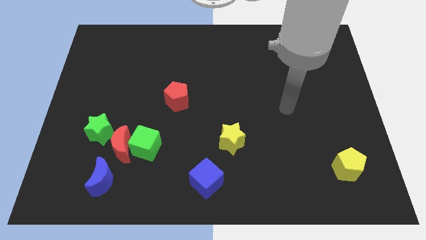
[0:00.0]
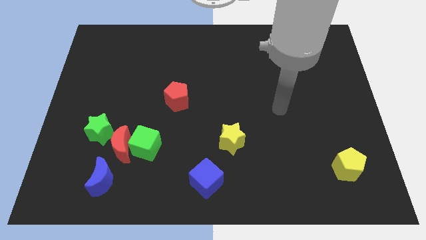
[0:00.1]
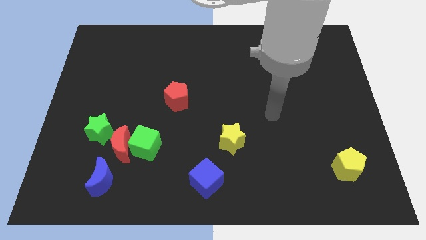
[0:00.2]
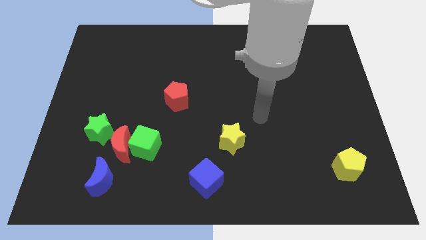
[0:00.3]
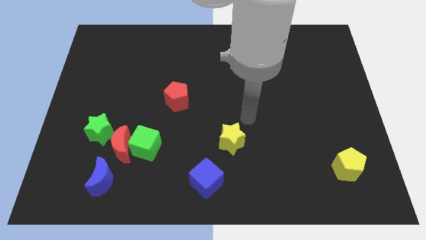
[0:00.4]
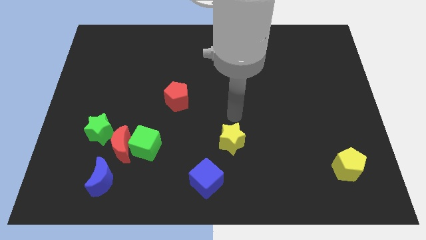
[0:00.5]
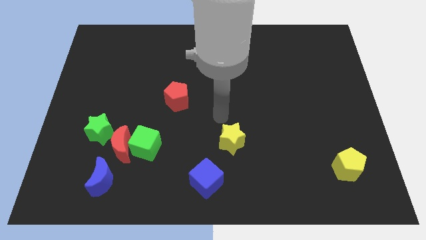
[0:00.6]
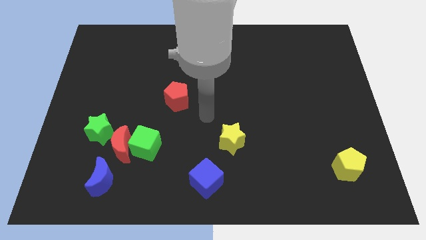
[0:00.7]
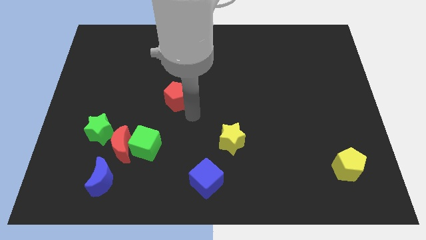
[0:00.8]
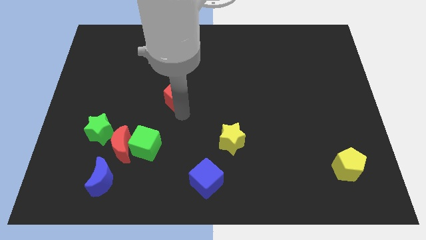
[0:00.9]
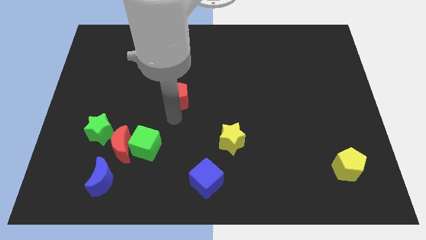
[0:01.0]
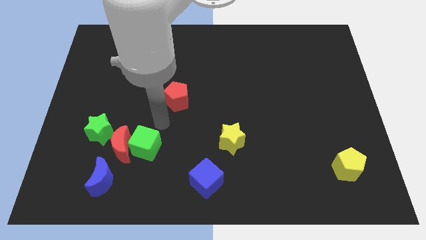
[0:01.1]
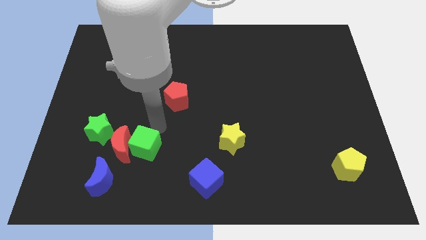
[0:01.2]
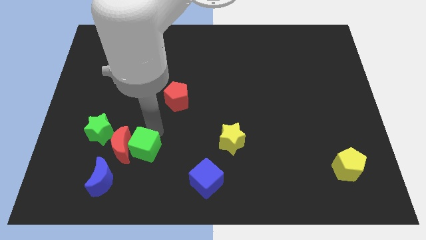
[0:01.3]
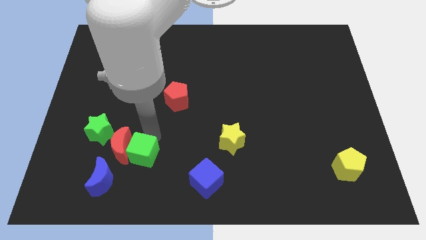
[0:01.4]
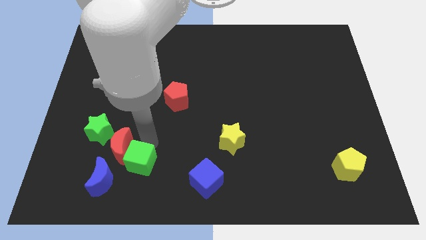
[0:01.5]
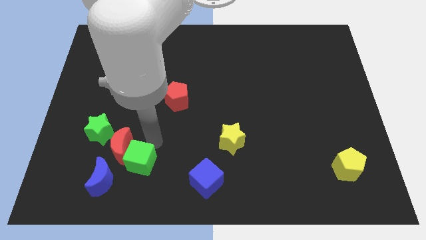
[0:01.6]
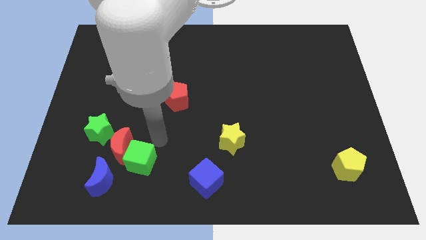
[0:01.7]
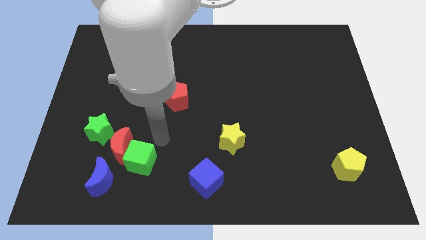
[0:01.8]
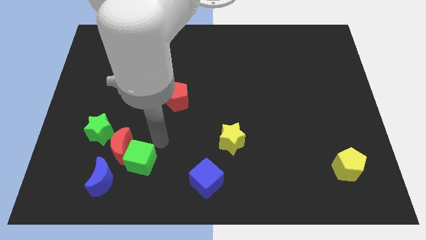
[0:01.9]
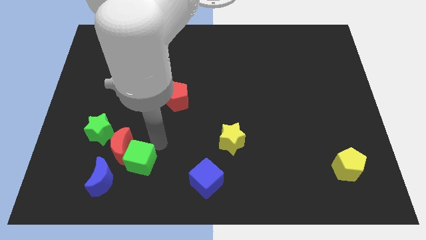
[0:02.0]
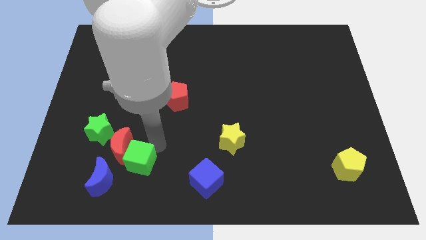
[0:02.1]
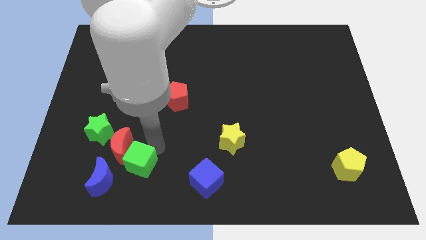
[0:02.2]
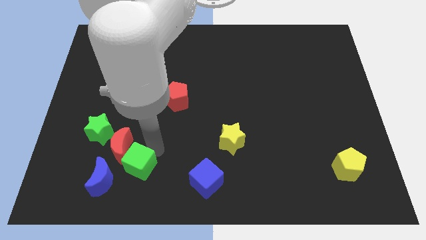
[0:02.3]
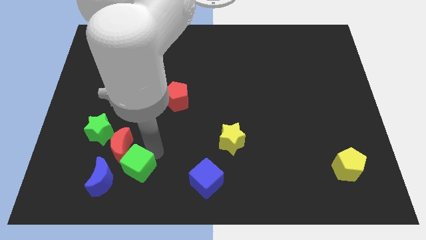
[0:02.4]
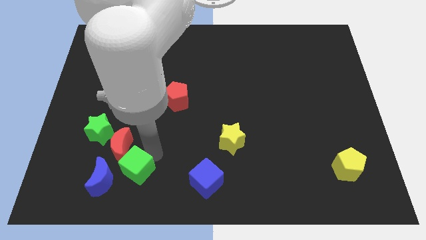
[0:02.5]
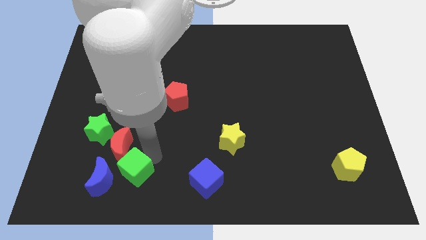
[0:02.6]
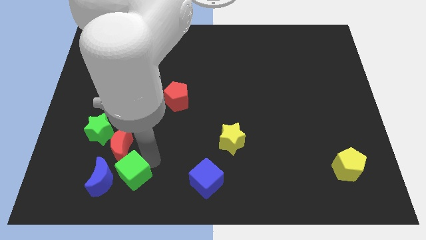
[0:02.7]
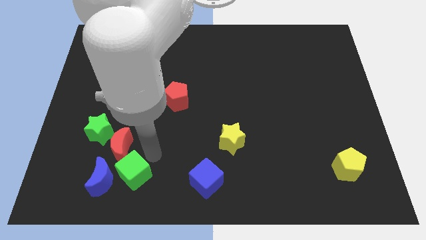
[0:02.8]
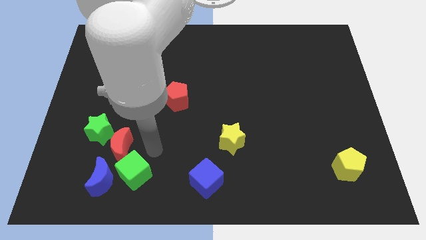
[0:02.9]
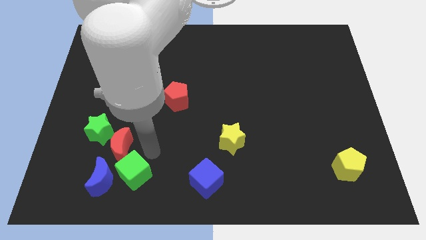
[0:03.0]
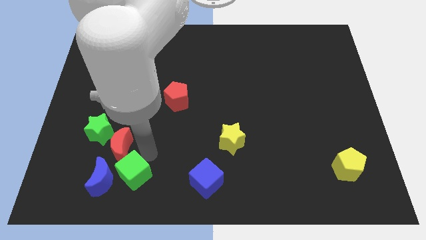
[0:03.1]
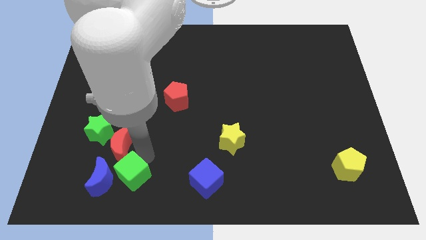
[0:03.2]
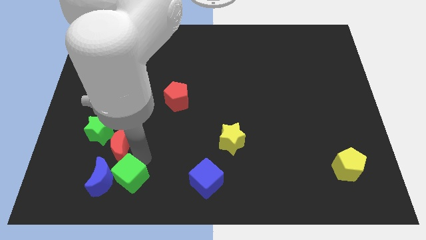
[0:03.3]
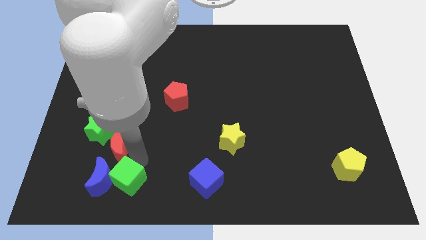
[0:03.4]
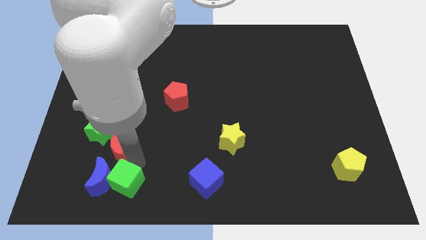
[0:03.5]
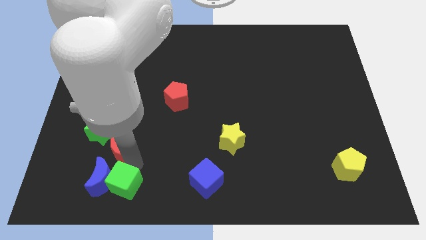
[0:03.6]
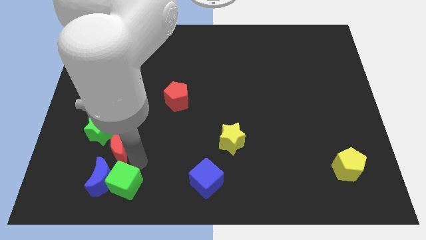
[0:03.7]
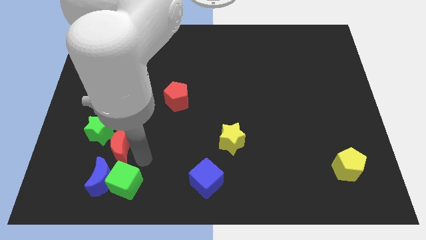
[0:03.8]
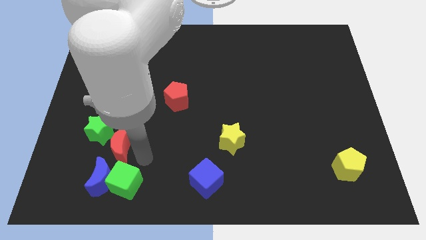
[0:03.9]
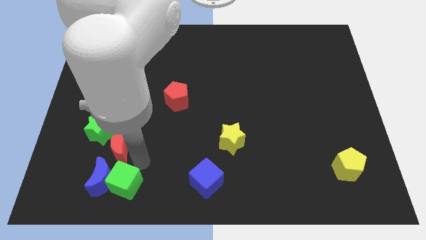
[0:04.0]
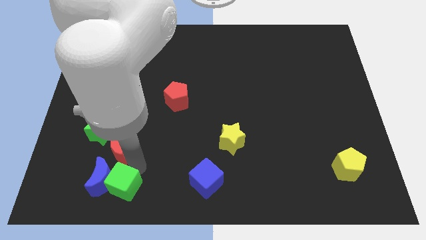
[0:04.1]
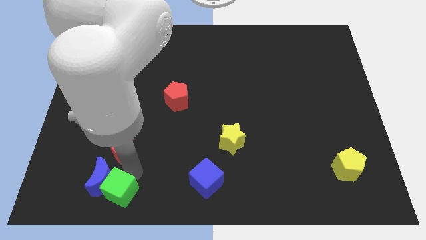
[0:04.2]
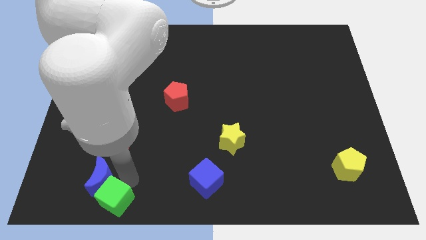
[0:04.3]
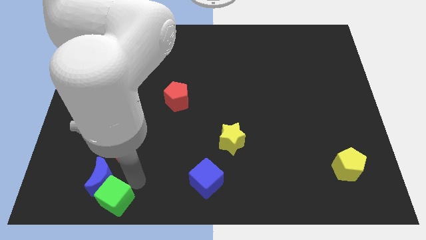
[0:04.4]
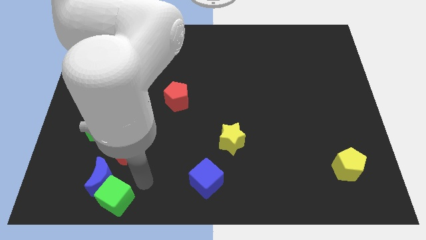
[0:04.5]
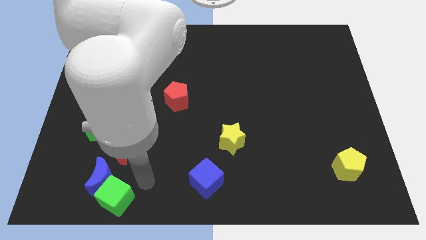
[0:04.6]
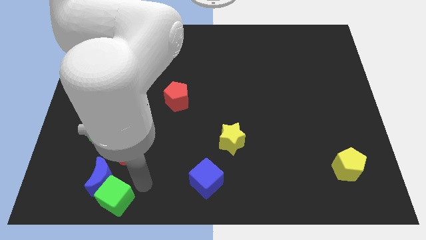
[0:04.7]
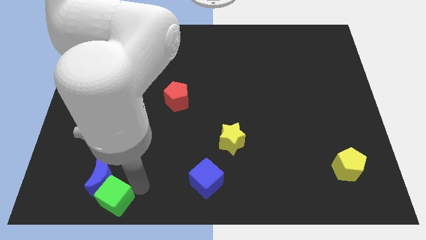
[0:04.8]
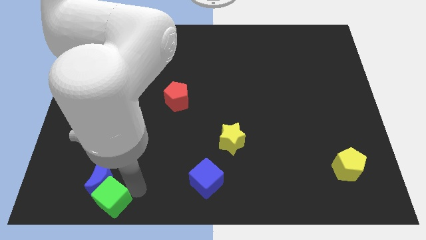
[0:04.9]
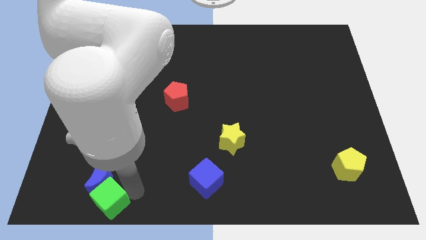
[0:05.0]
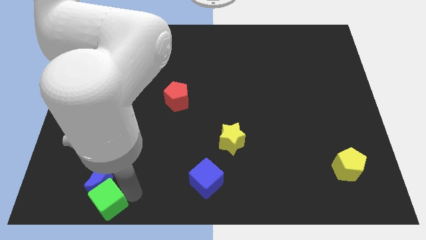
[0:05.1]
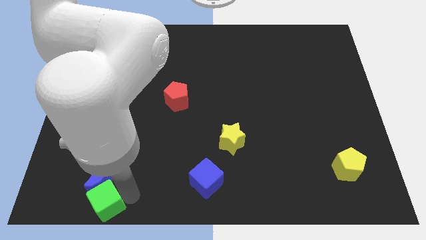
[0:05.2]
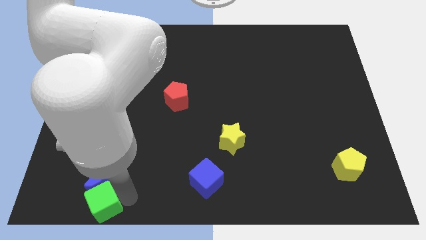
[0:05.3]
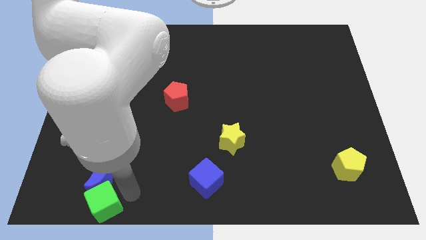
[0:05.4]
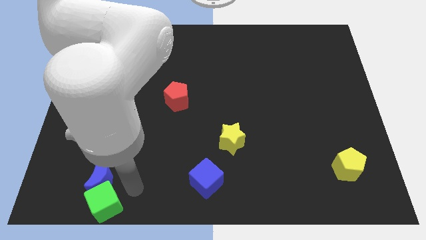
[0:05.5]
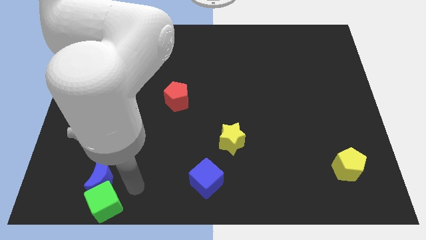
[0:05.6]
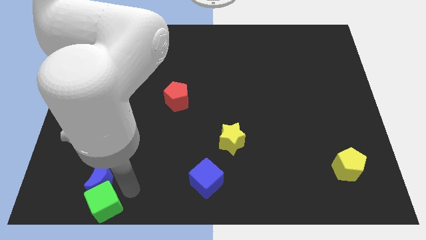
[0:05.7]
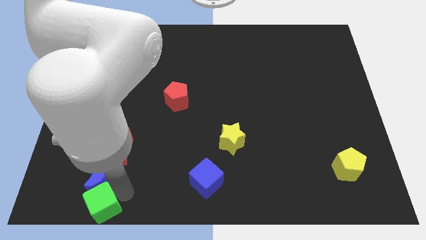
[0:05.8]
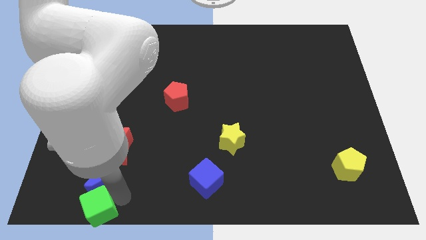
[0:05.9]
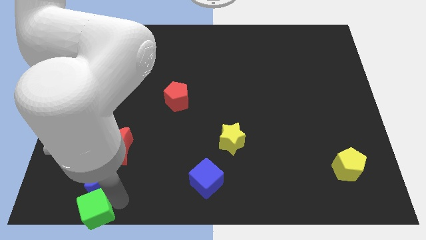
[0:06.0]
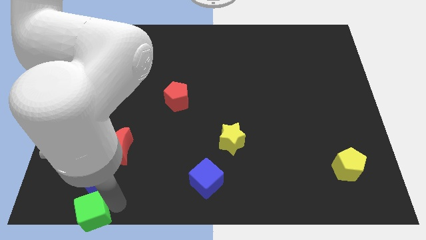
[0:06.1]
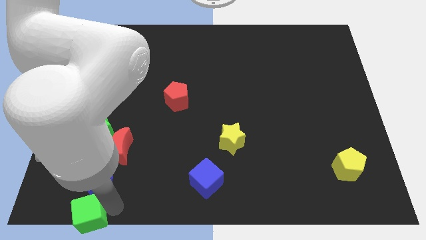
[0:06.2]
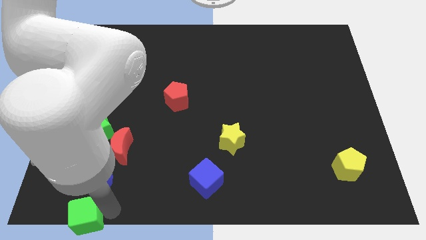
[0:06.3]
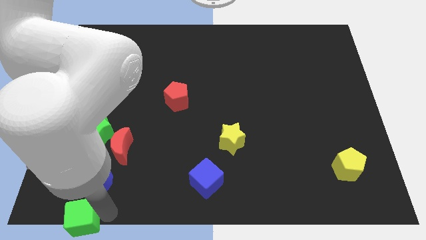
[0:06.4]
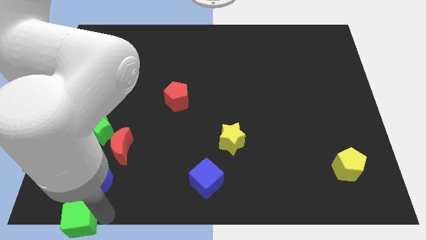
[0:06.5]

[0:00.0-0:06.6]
put the green cube to the bottom left of the board

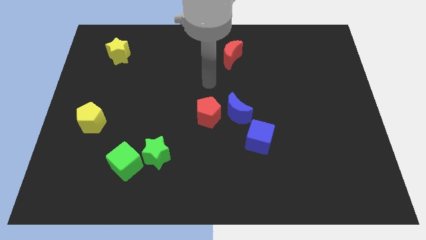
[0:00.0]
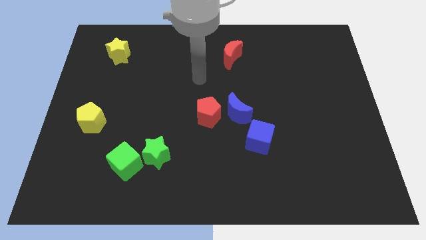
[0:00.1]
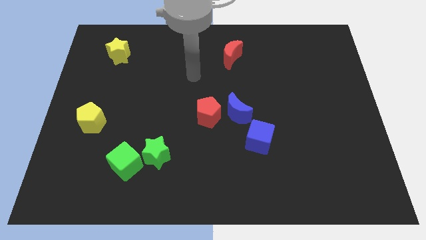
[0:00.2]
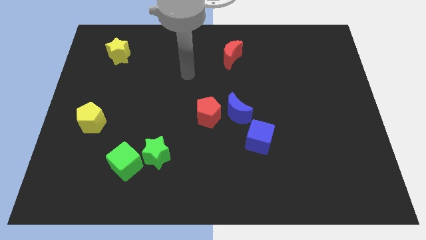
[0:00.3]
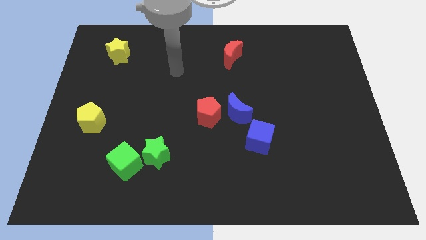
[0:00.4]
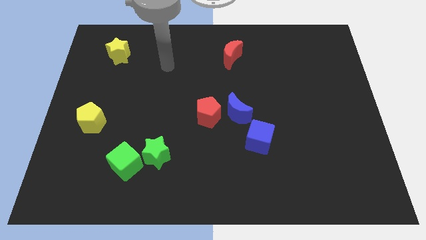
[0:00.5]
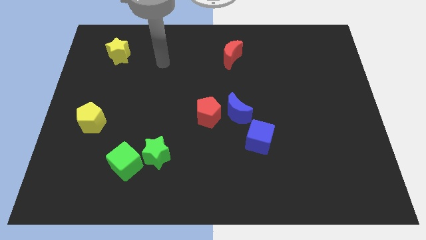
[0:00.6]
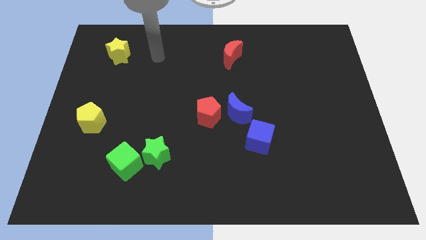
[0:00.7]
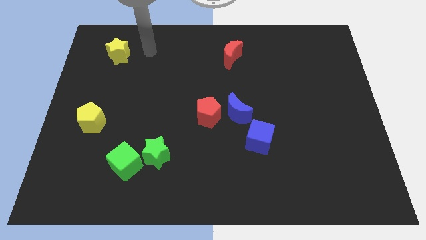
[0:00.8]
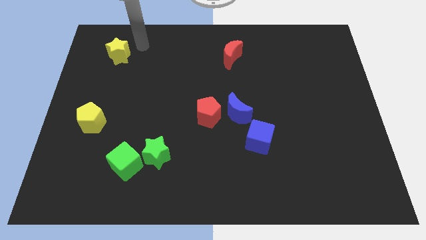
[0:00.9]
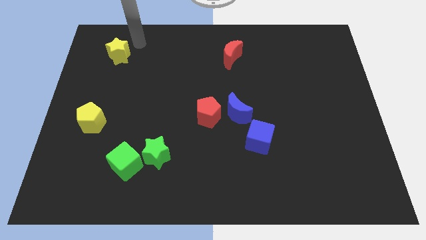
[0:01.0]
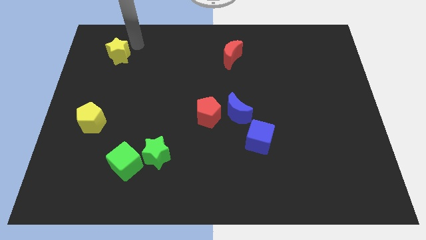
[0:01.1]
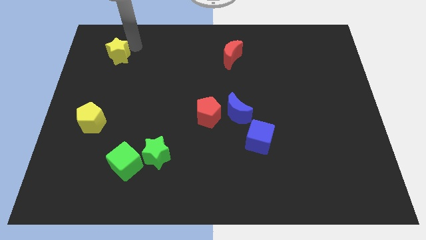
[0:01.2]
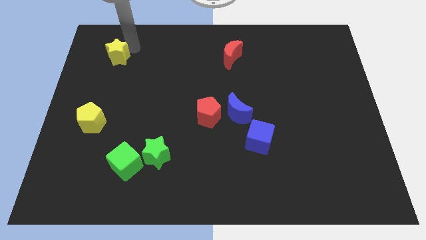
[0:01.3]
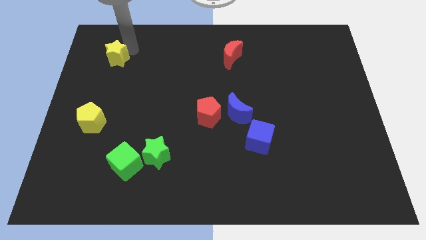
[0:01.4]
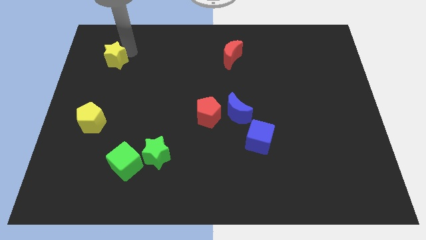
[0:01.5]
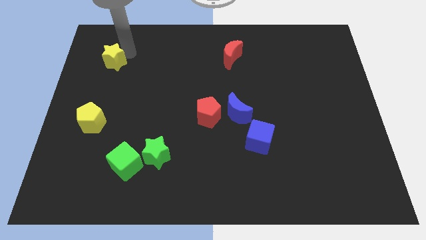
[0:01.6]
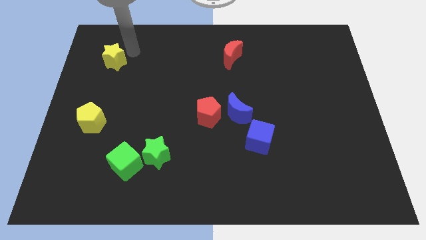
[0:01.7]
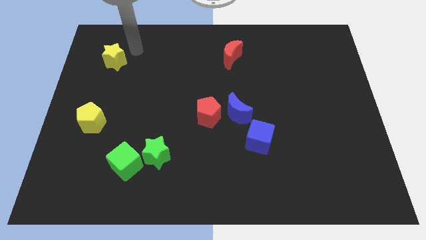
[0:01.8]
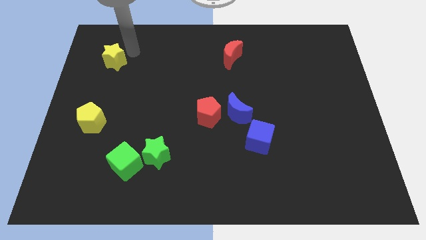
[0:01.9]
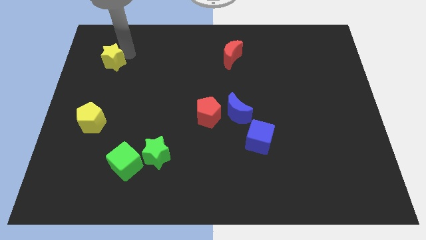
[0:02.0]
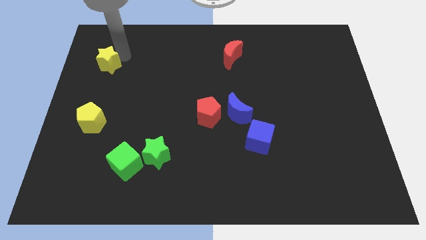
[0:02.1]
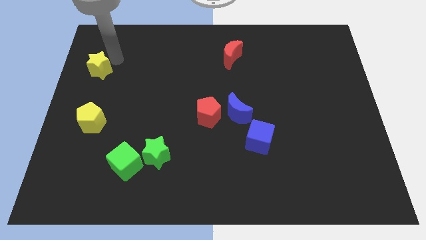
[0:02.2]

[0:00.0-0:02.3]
push the yellow star to the left side of the board
